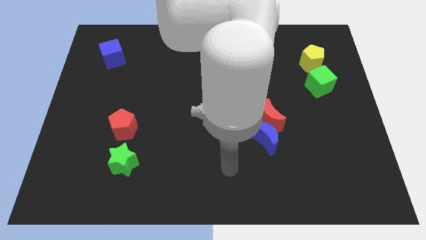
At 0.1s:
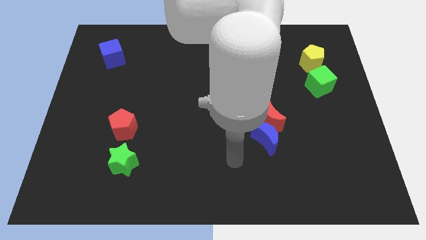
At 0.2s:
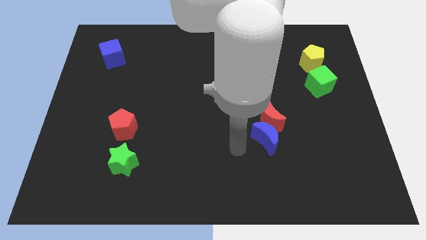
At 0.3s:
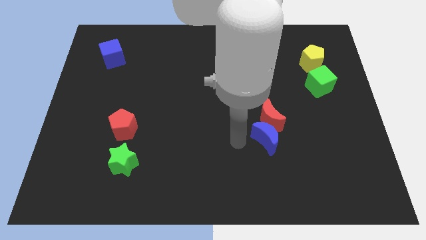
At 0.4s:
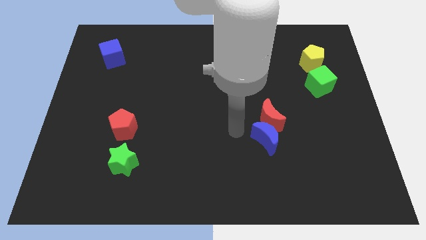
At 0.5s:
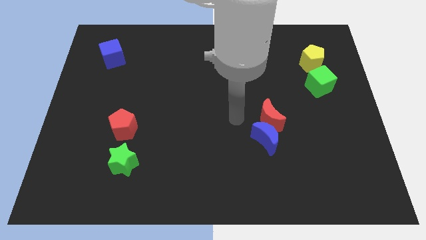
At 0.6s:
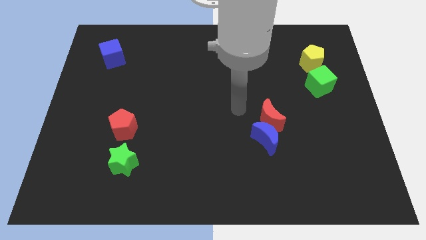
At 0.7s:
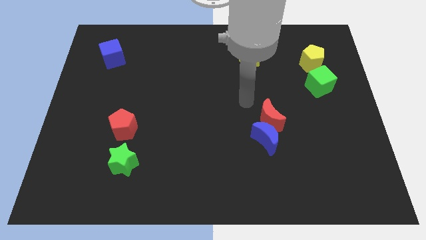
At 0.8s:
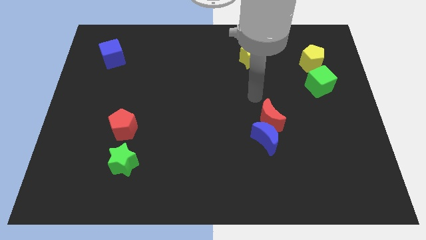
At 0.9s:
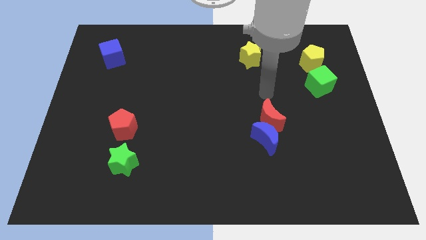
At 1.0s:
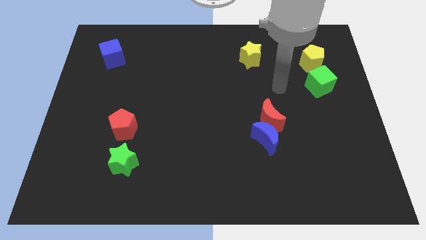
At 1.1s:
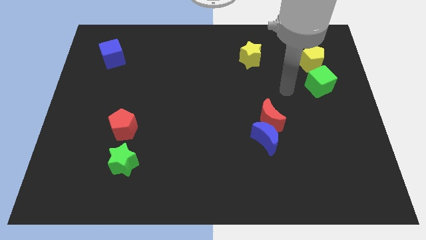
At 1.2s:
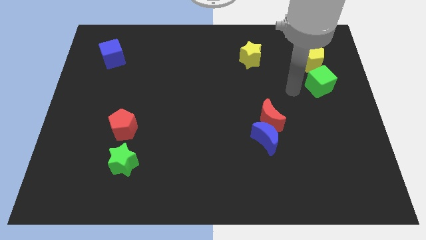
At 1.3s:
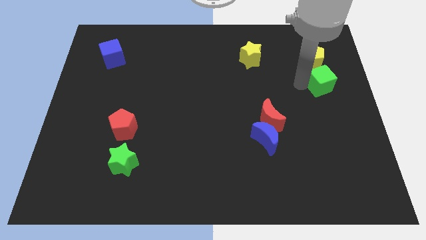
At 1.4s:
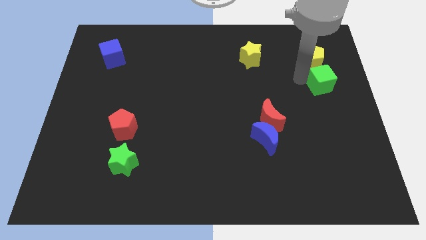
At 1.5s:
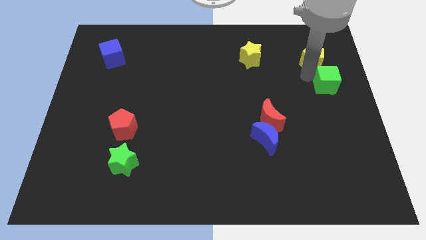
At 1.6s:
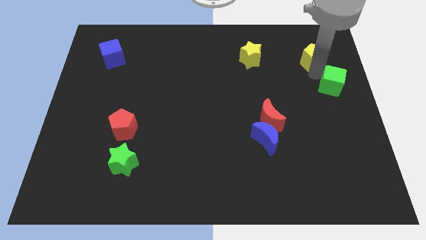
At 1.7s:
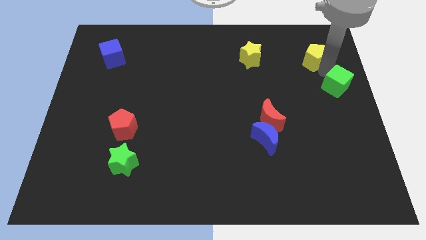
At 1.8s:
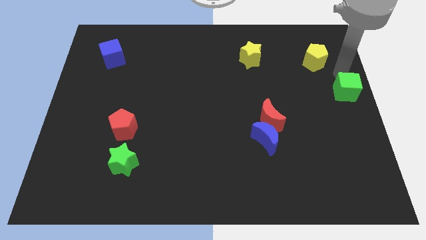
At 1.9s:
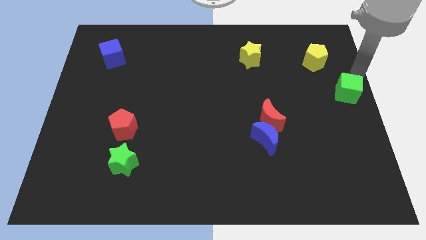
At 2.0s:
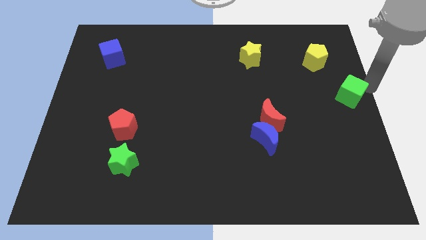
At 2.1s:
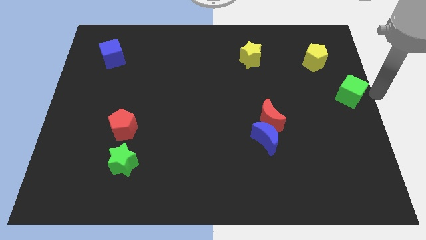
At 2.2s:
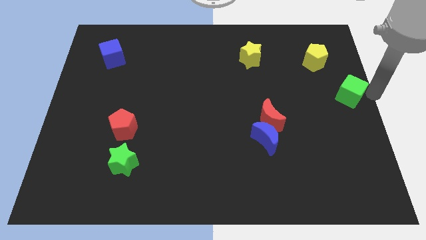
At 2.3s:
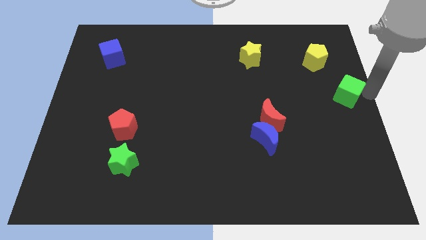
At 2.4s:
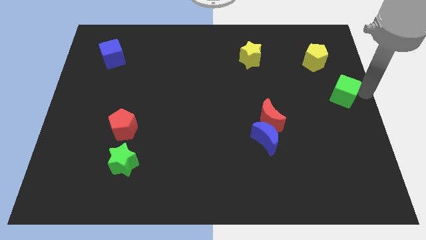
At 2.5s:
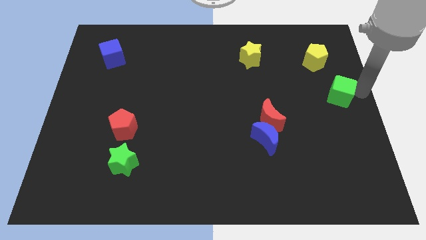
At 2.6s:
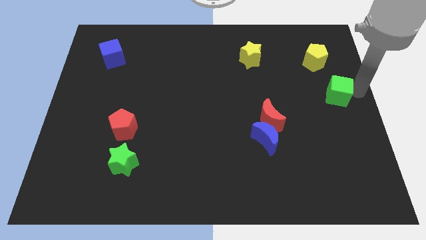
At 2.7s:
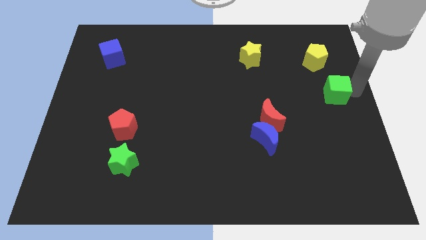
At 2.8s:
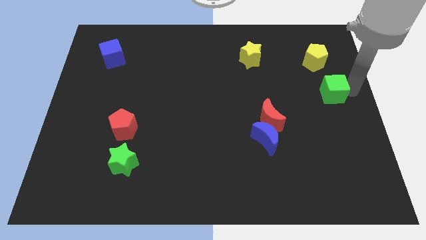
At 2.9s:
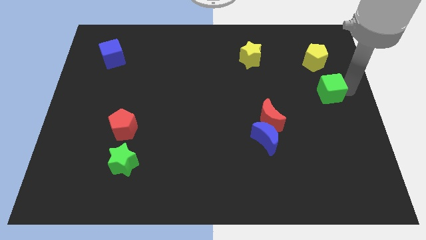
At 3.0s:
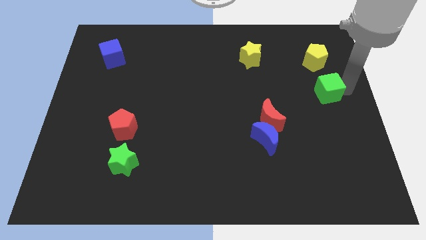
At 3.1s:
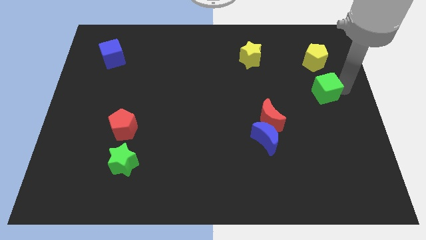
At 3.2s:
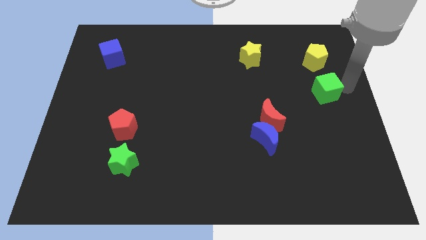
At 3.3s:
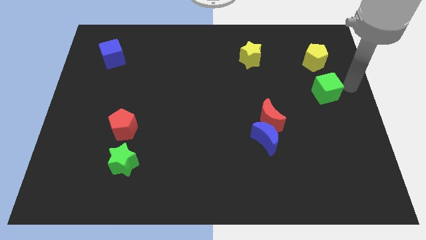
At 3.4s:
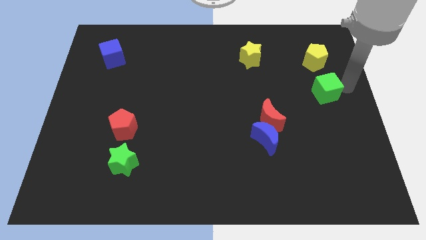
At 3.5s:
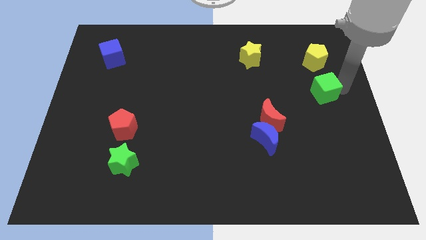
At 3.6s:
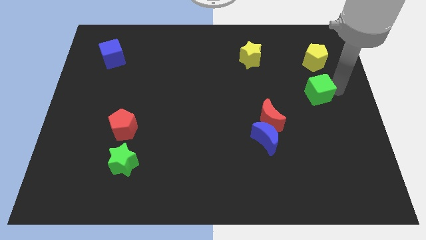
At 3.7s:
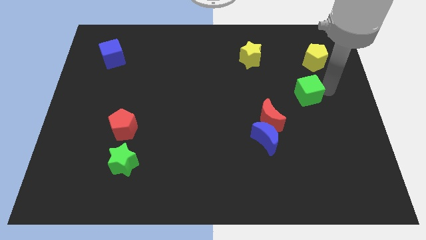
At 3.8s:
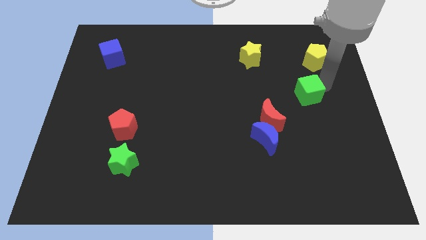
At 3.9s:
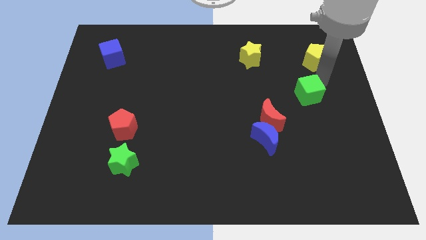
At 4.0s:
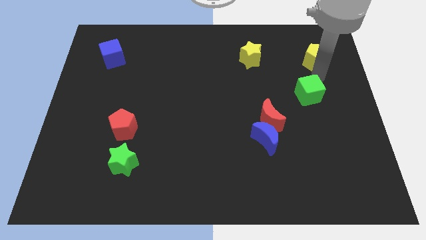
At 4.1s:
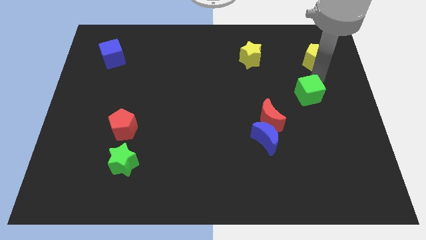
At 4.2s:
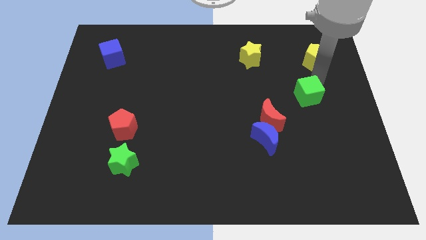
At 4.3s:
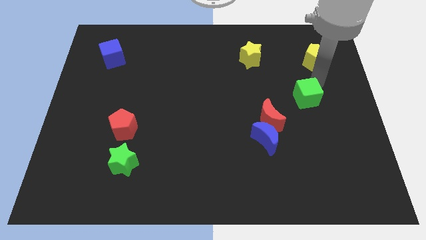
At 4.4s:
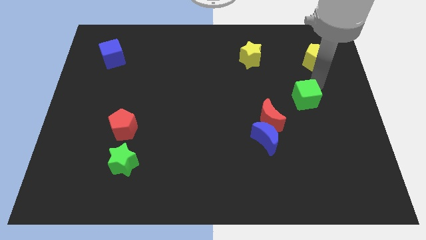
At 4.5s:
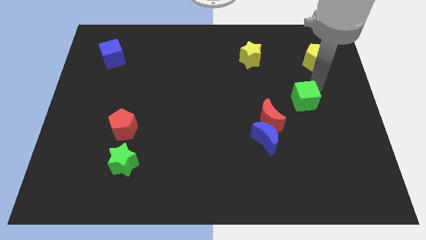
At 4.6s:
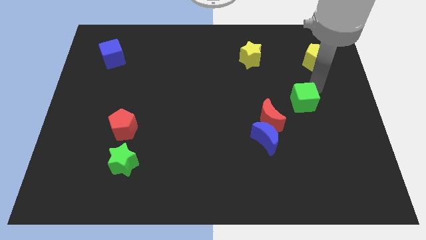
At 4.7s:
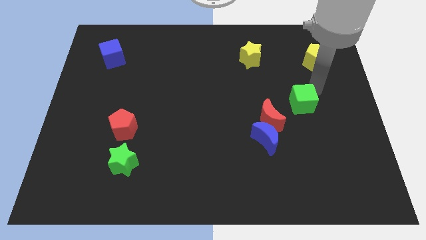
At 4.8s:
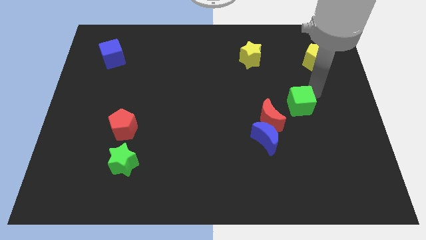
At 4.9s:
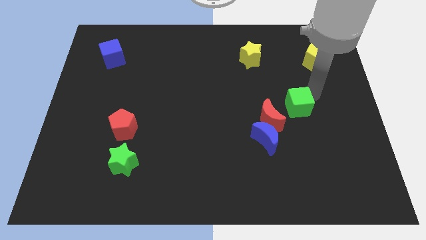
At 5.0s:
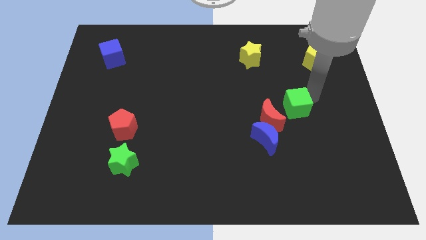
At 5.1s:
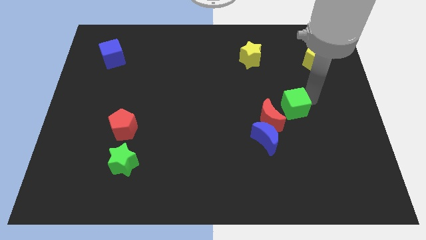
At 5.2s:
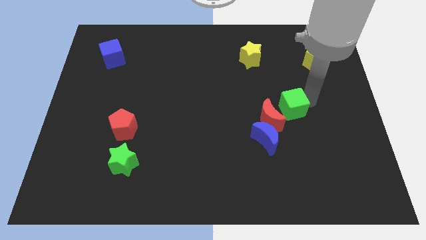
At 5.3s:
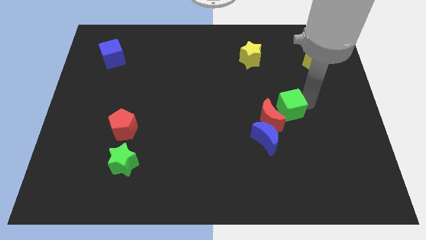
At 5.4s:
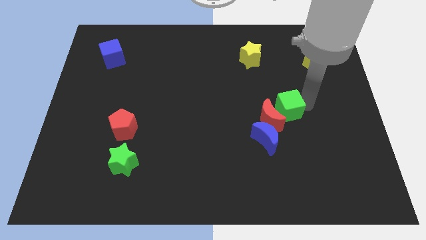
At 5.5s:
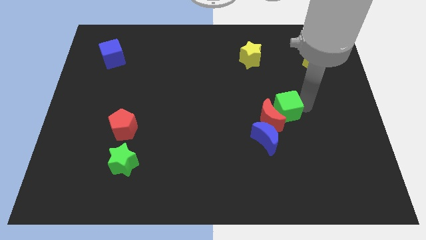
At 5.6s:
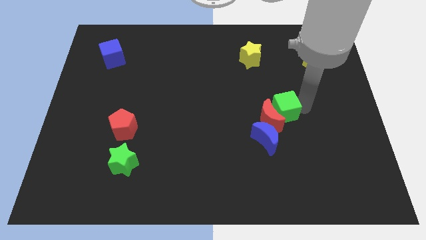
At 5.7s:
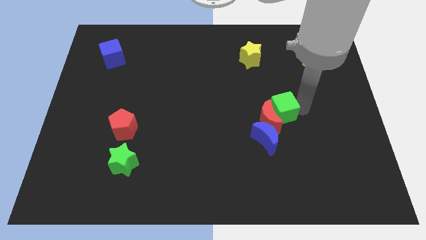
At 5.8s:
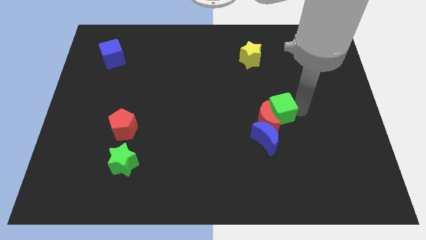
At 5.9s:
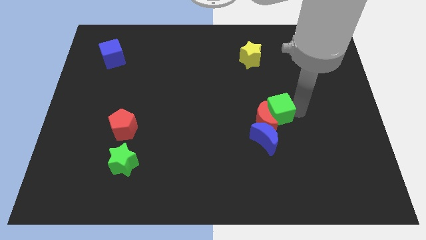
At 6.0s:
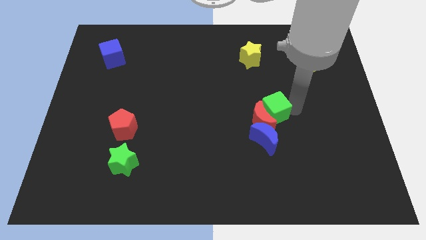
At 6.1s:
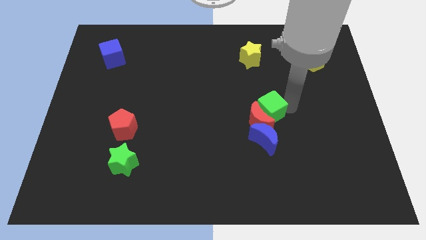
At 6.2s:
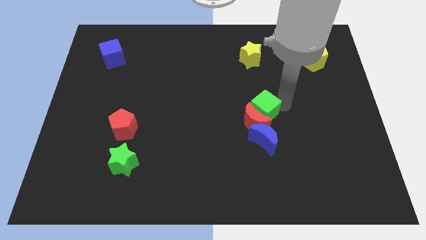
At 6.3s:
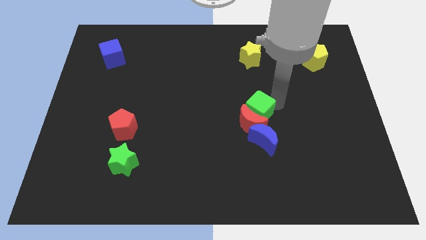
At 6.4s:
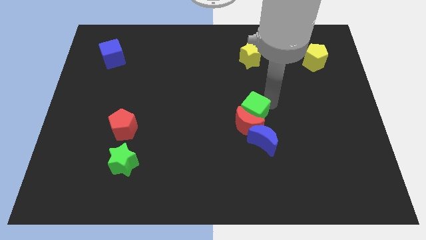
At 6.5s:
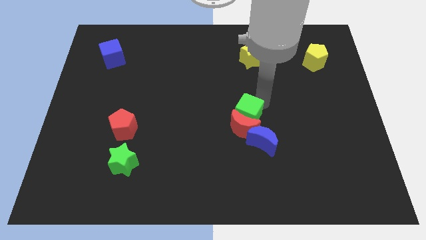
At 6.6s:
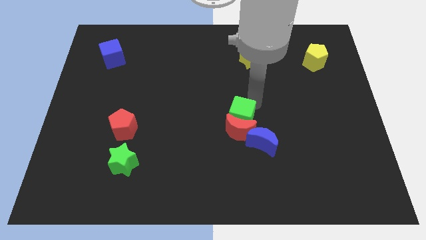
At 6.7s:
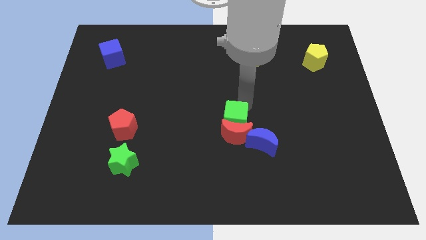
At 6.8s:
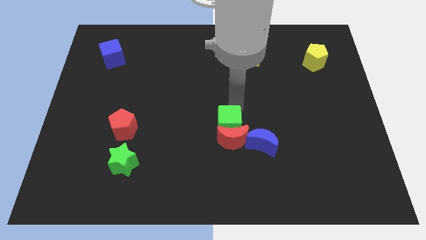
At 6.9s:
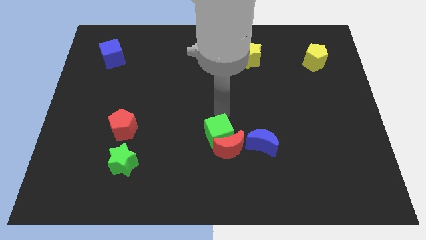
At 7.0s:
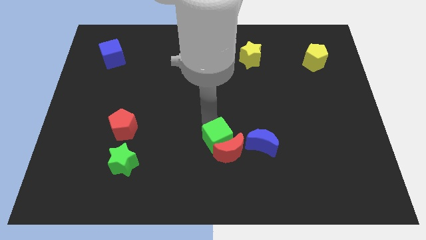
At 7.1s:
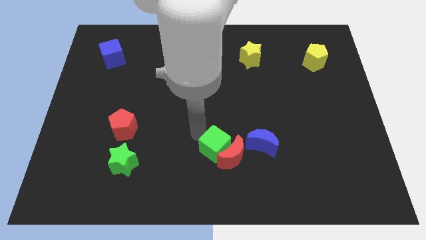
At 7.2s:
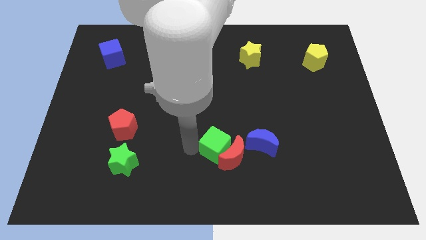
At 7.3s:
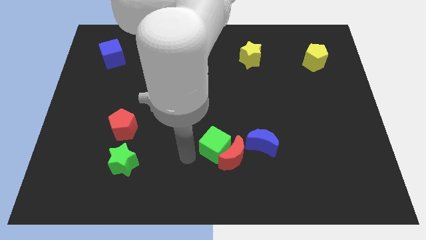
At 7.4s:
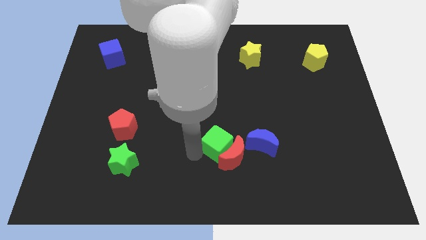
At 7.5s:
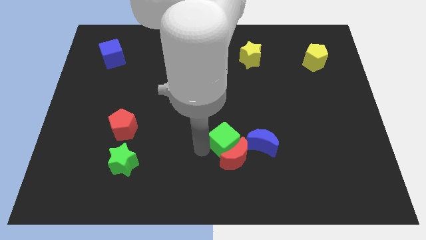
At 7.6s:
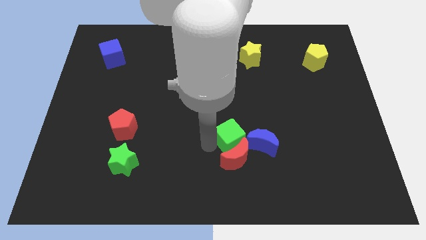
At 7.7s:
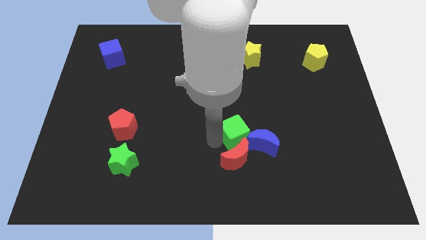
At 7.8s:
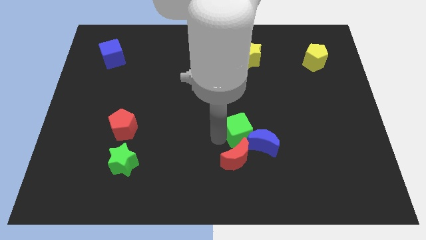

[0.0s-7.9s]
move the green cube close to the blue moon
